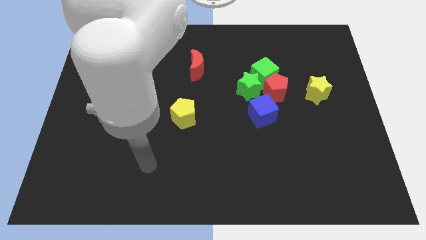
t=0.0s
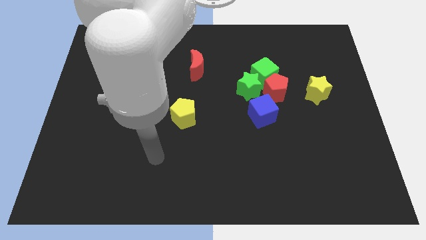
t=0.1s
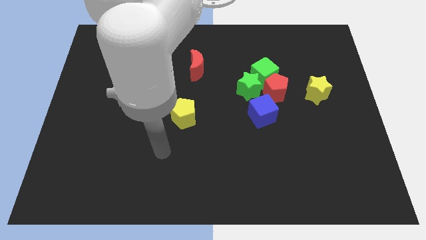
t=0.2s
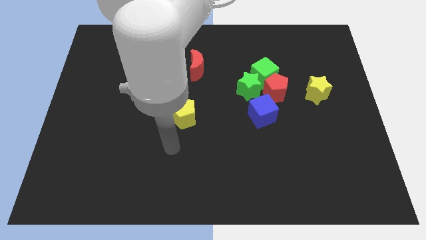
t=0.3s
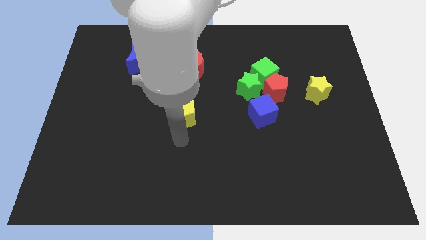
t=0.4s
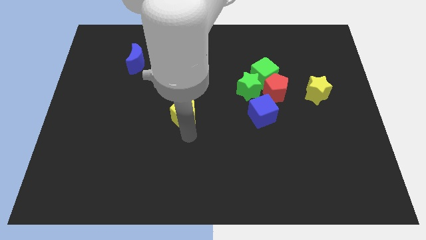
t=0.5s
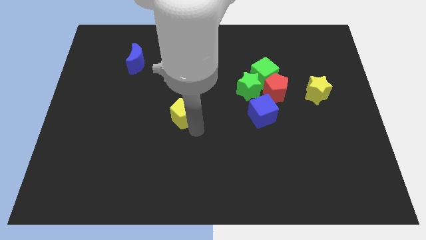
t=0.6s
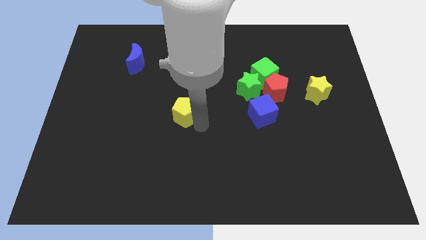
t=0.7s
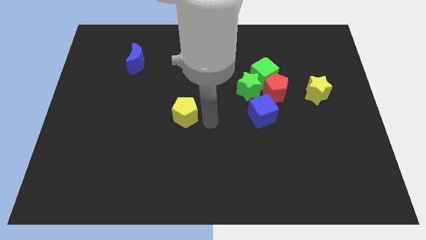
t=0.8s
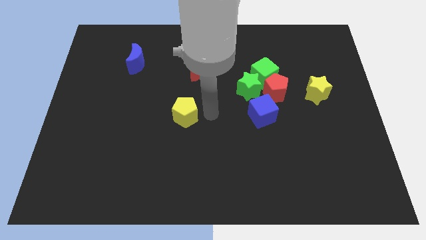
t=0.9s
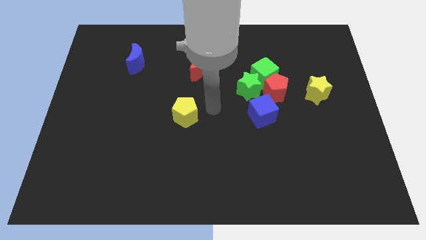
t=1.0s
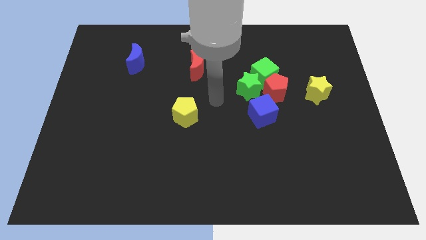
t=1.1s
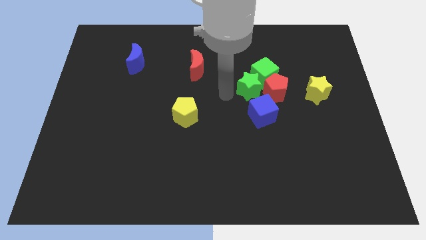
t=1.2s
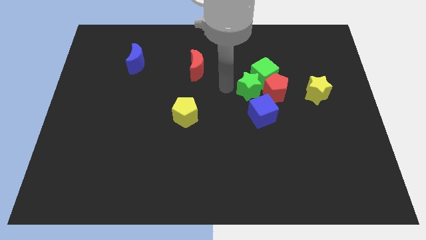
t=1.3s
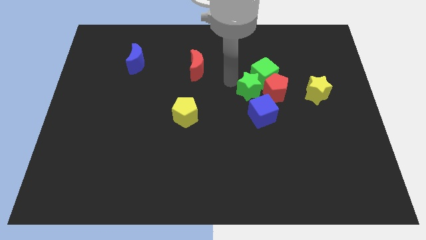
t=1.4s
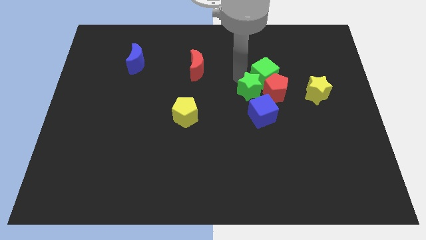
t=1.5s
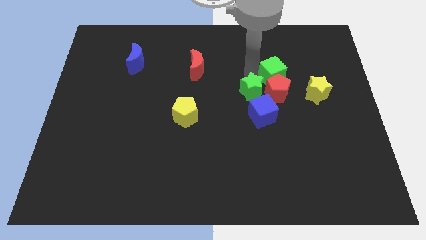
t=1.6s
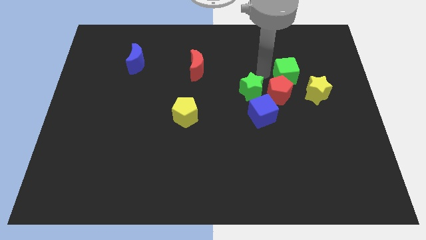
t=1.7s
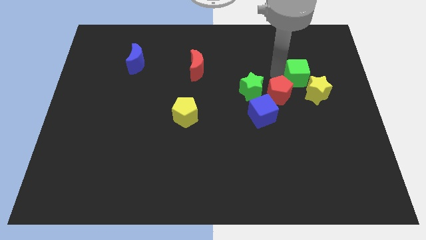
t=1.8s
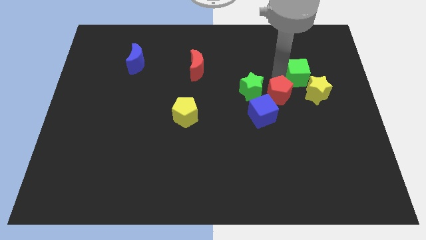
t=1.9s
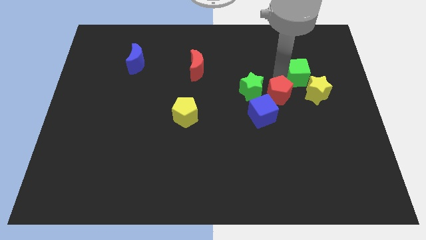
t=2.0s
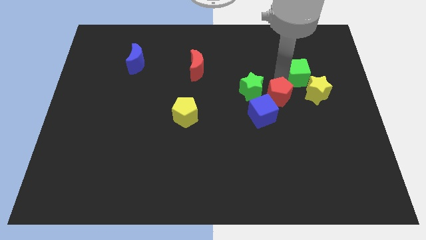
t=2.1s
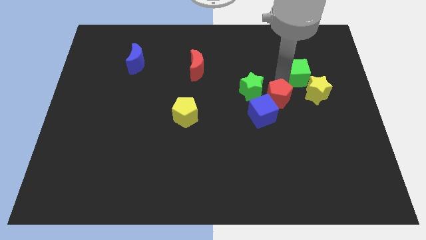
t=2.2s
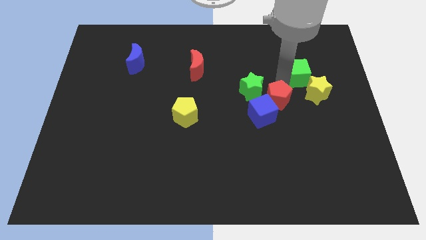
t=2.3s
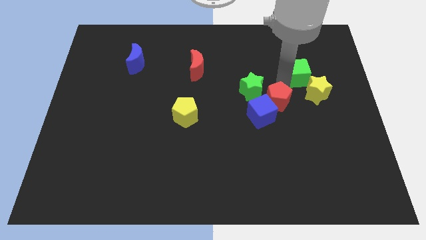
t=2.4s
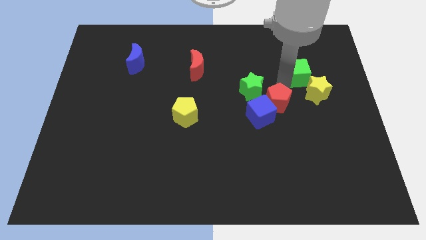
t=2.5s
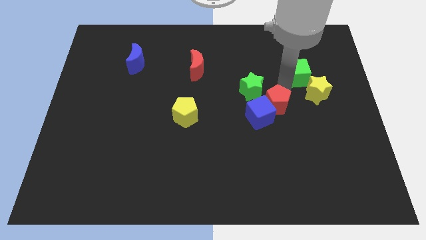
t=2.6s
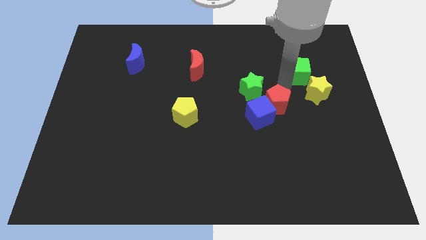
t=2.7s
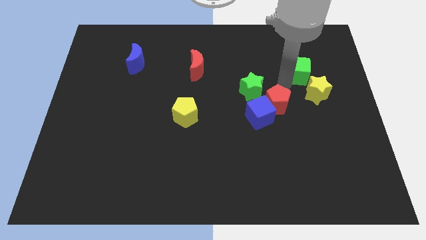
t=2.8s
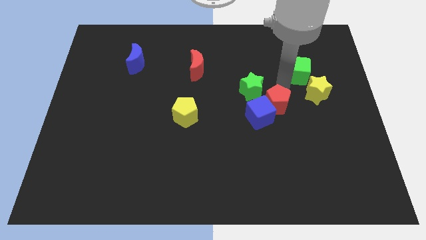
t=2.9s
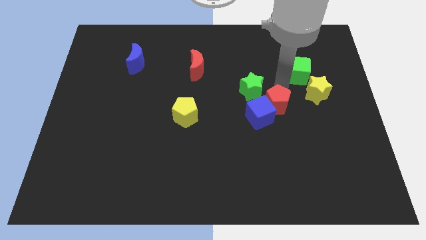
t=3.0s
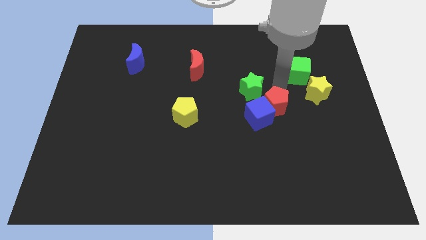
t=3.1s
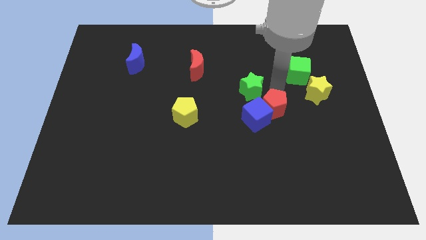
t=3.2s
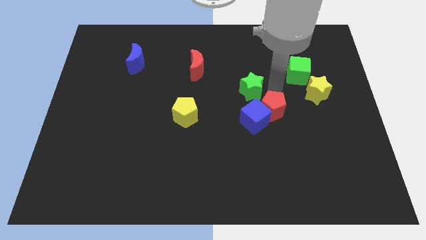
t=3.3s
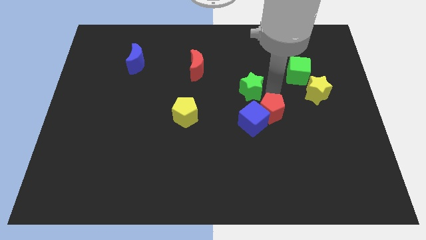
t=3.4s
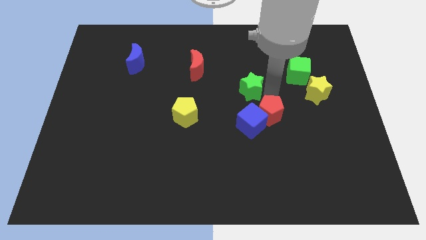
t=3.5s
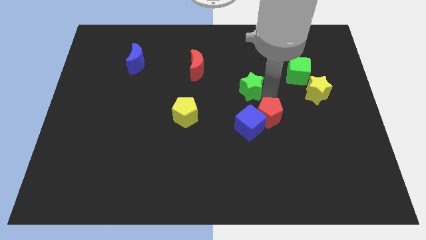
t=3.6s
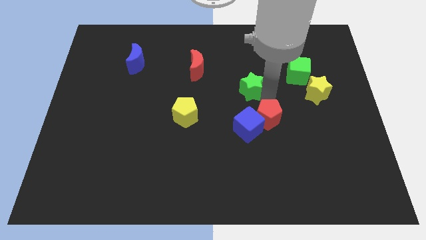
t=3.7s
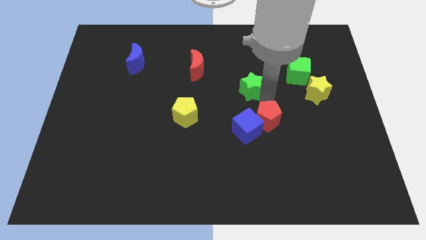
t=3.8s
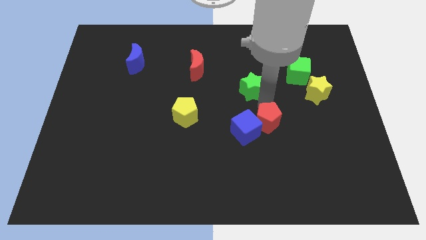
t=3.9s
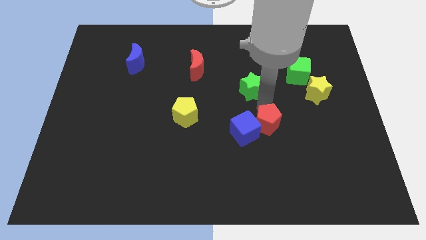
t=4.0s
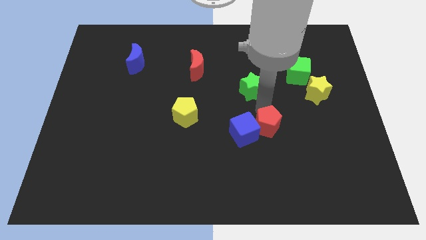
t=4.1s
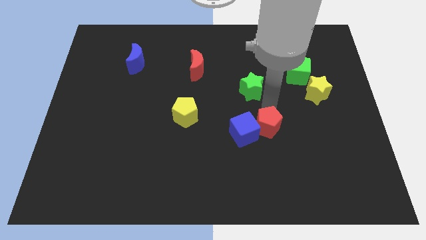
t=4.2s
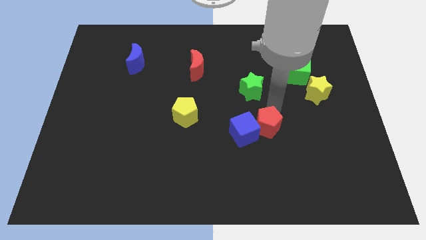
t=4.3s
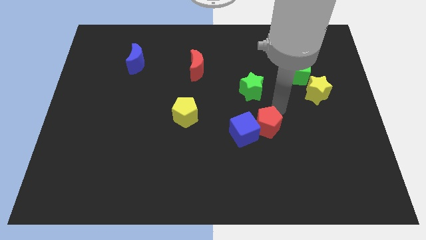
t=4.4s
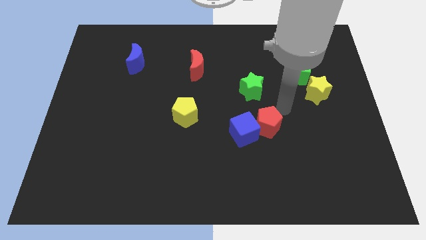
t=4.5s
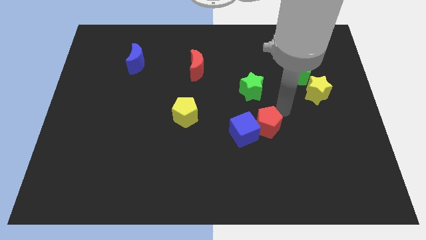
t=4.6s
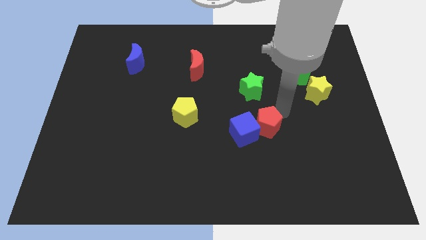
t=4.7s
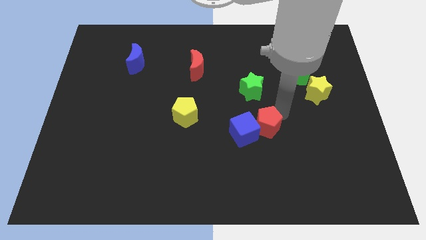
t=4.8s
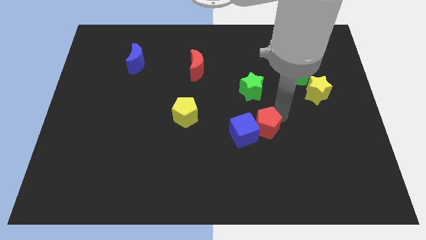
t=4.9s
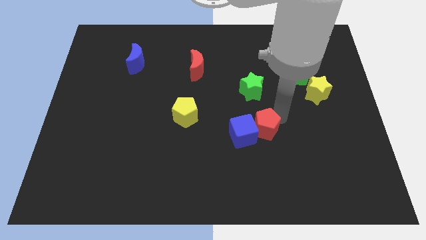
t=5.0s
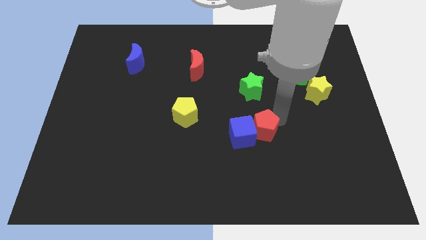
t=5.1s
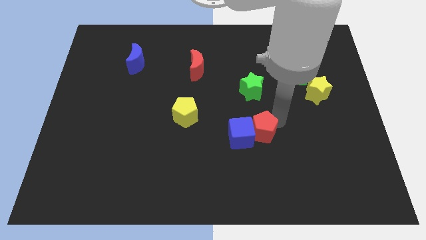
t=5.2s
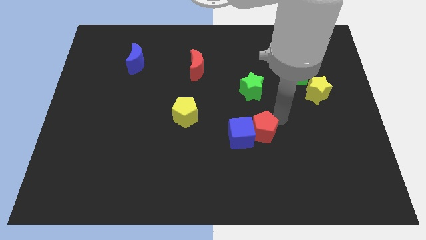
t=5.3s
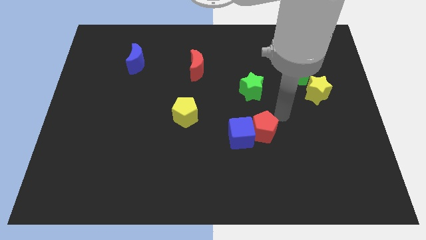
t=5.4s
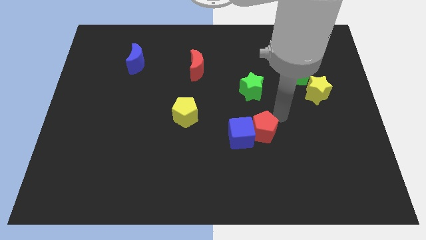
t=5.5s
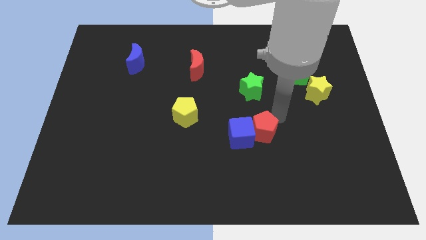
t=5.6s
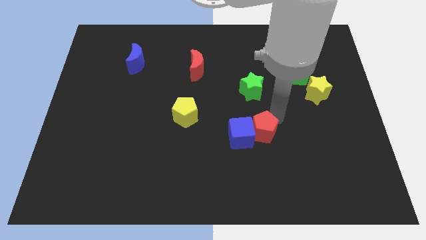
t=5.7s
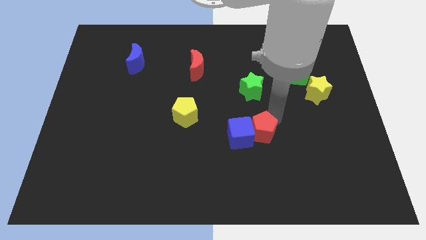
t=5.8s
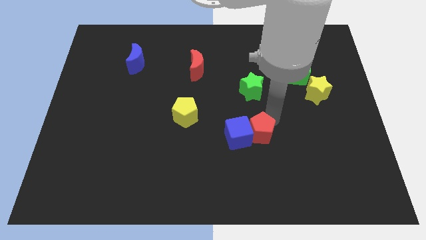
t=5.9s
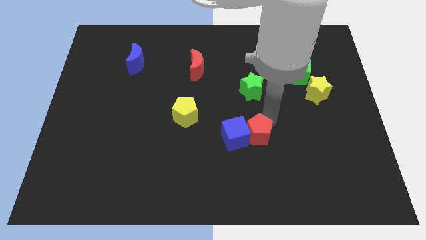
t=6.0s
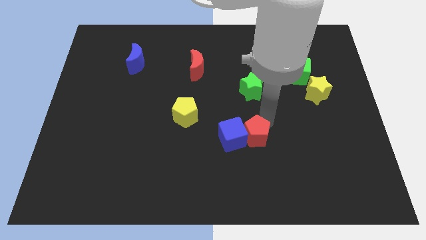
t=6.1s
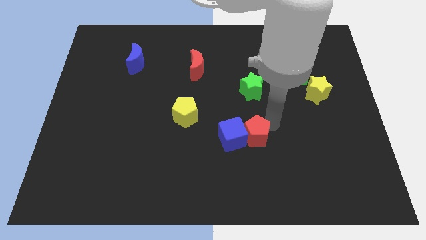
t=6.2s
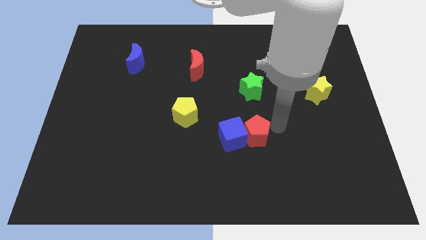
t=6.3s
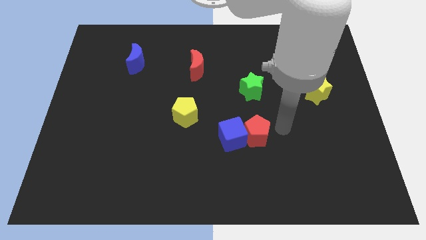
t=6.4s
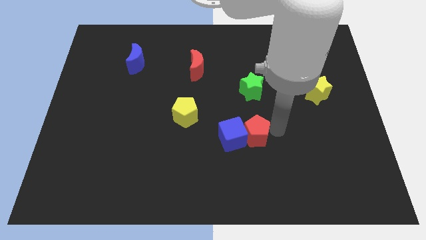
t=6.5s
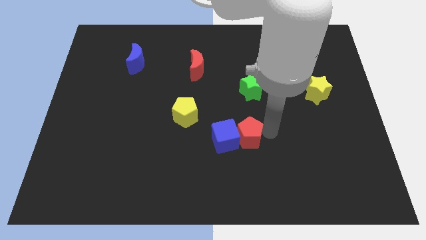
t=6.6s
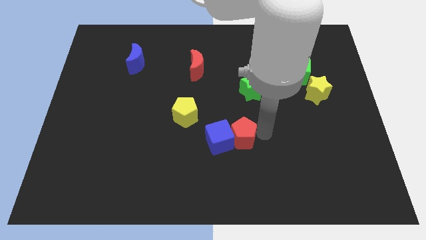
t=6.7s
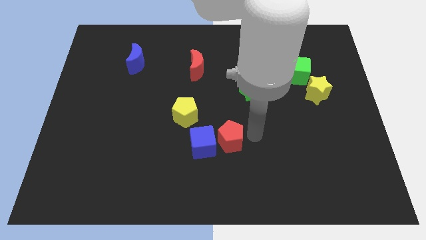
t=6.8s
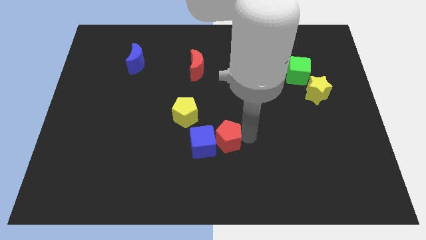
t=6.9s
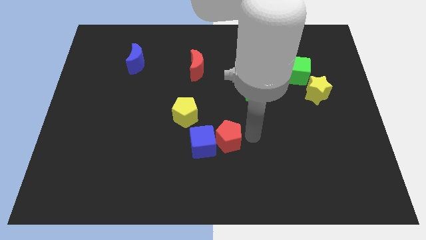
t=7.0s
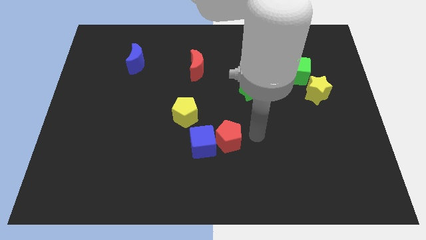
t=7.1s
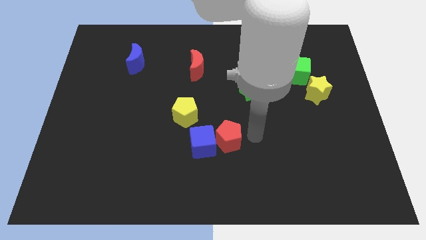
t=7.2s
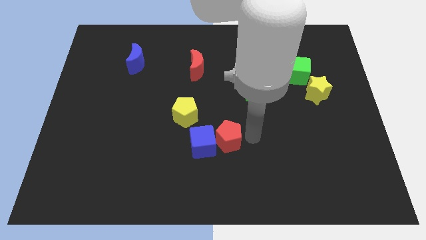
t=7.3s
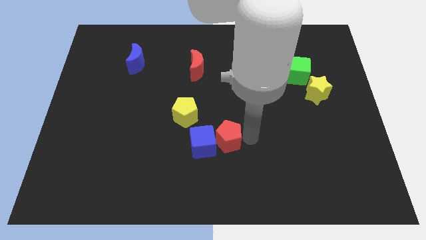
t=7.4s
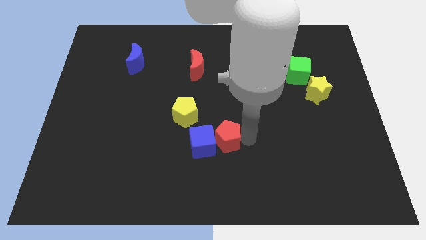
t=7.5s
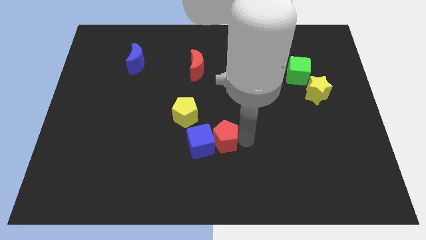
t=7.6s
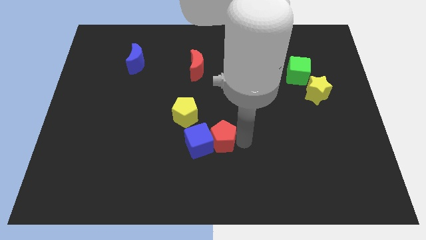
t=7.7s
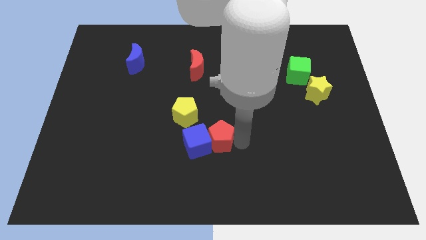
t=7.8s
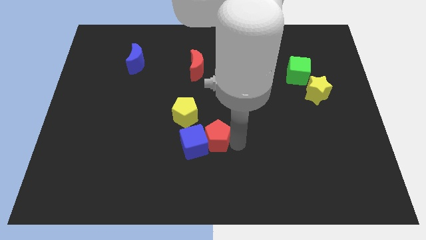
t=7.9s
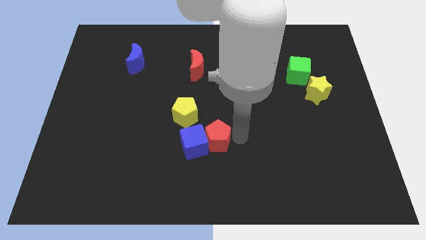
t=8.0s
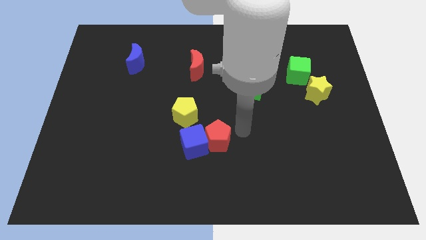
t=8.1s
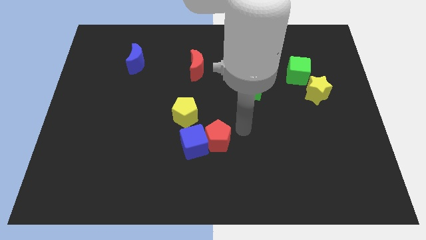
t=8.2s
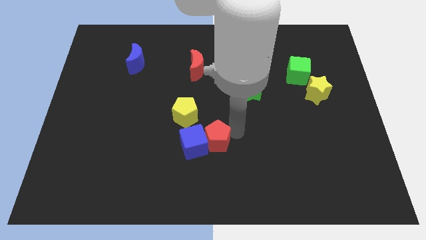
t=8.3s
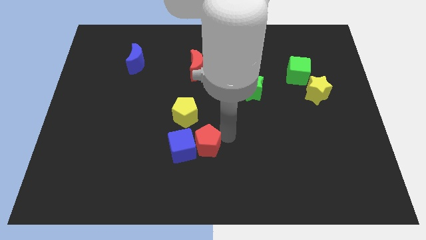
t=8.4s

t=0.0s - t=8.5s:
push the red pentagon below the yellow pentagon
